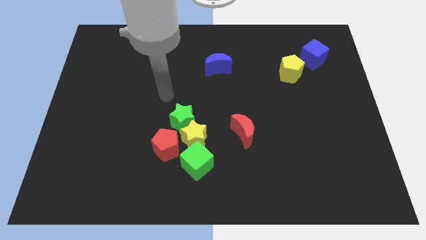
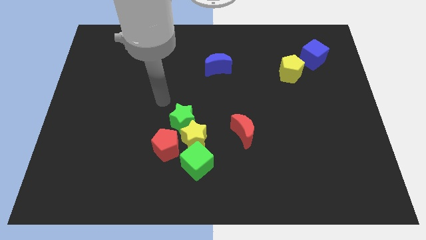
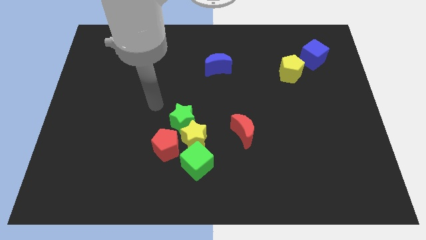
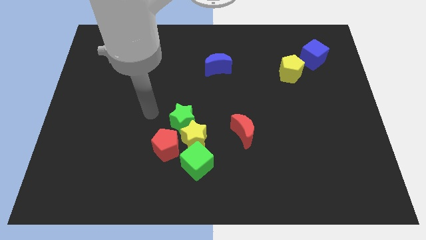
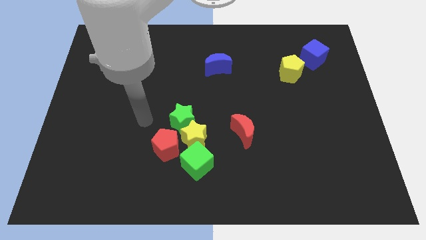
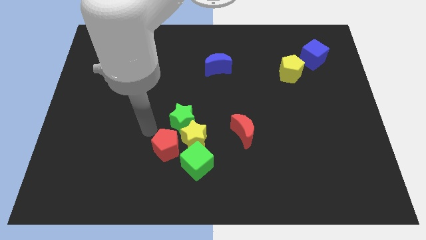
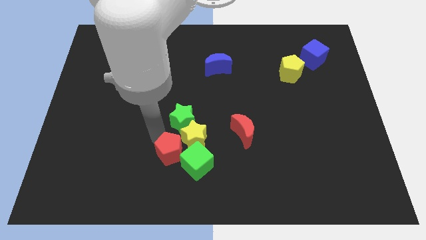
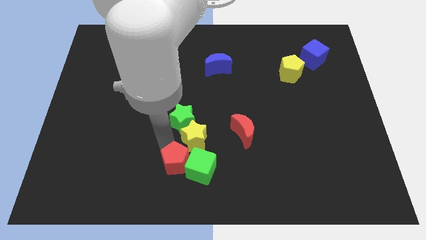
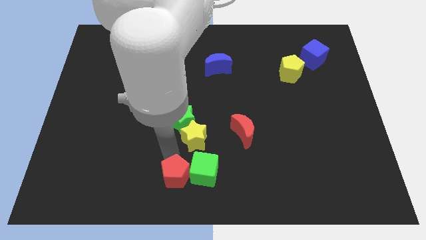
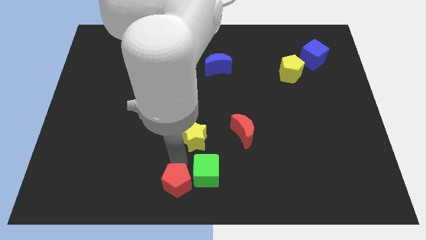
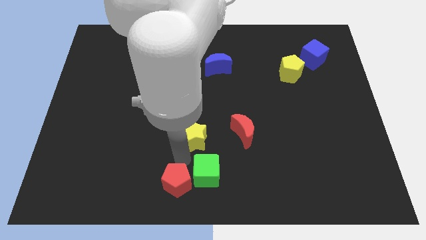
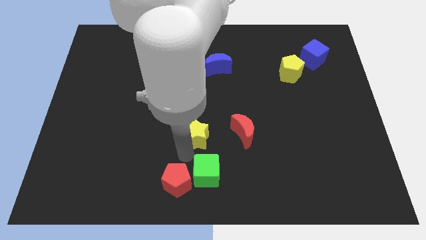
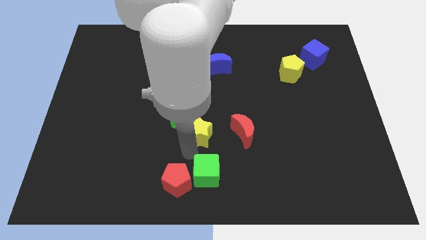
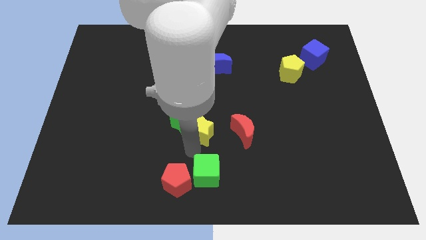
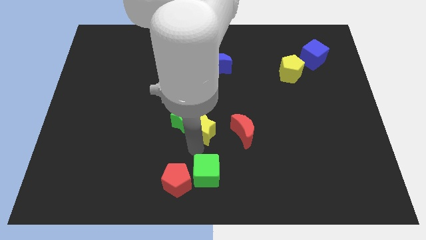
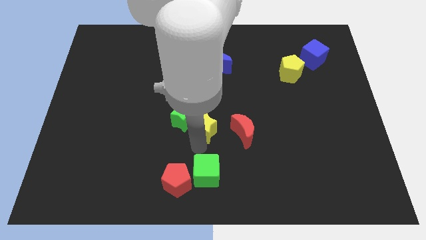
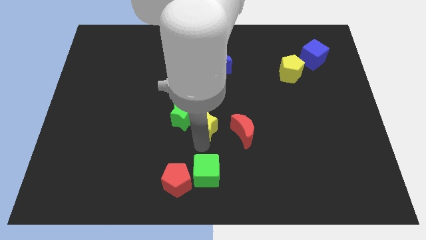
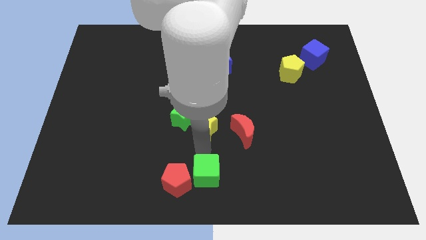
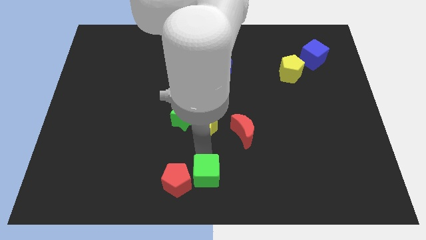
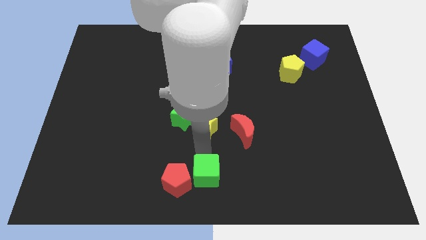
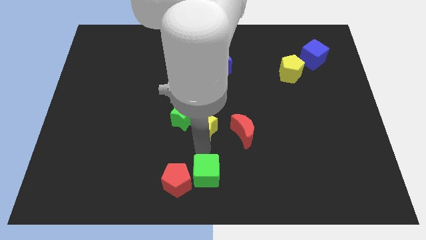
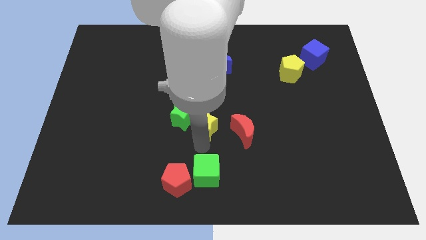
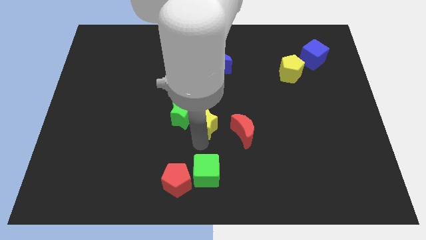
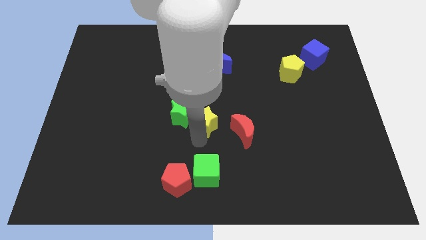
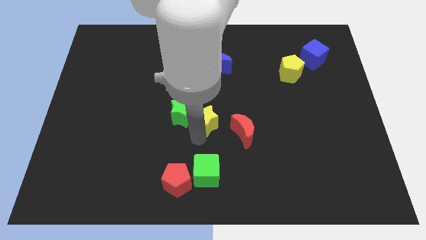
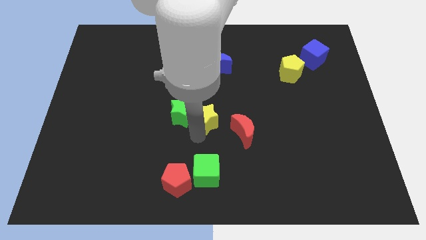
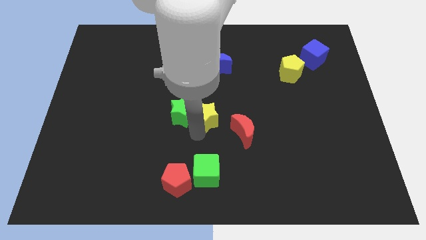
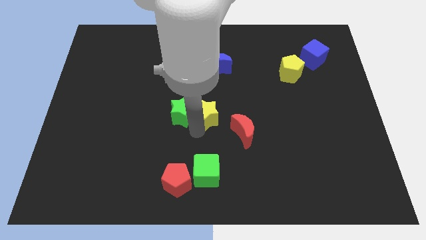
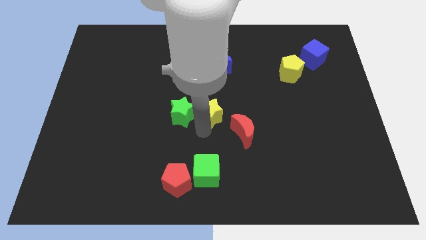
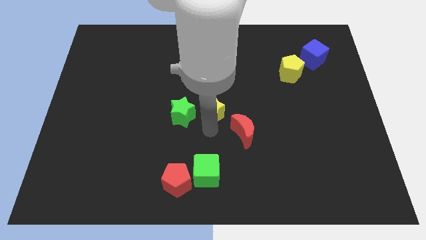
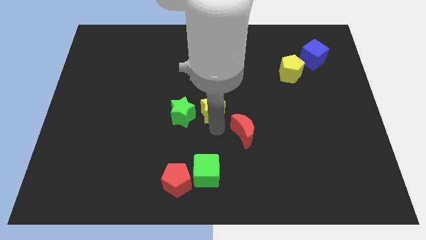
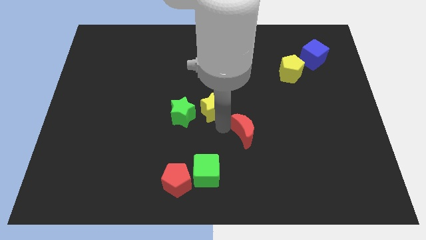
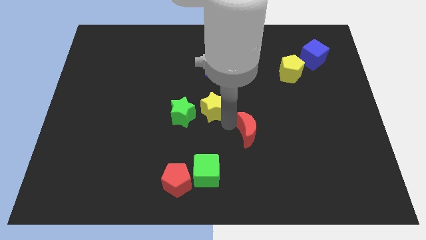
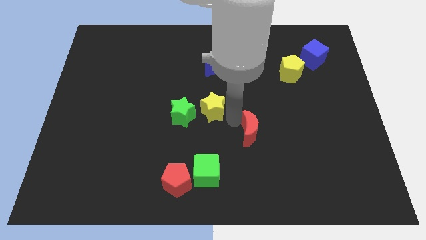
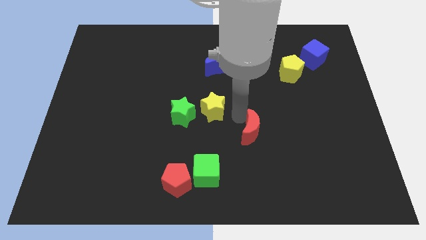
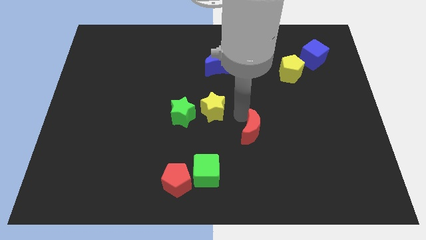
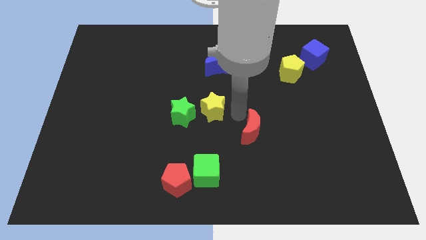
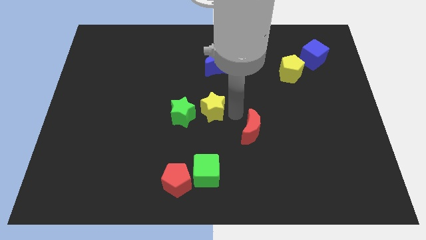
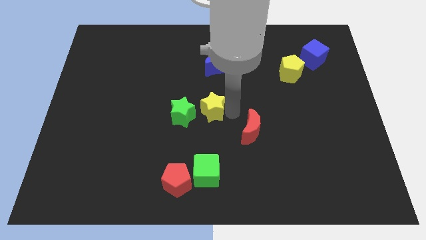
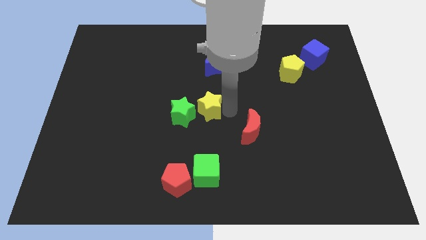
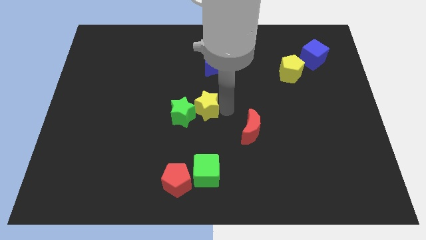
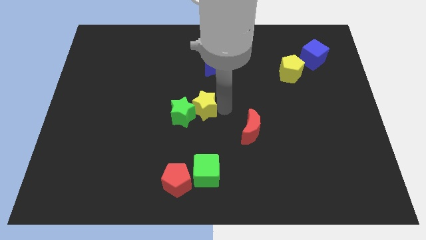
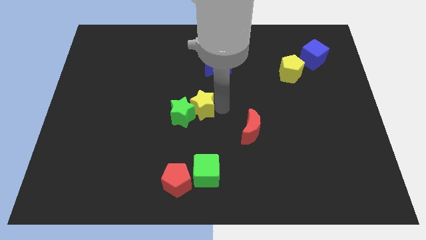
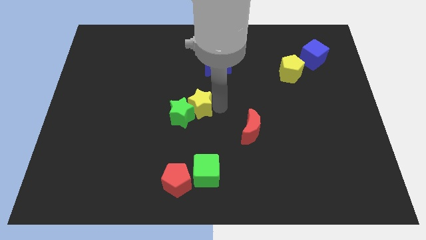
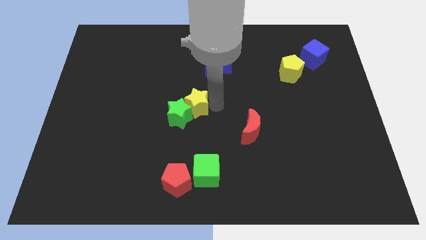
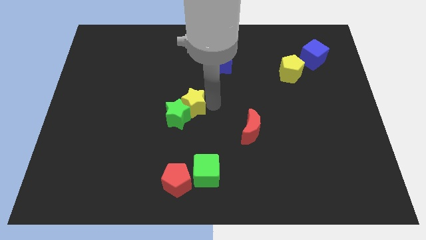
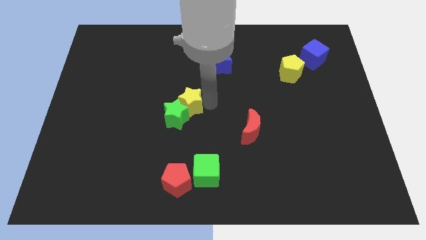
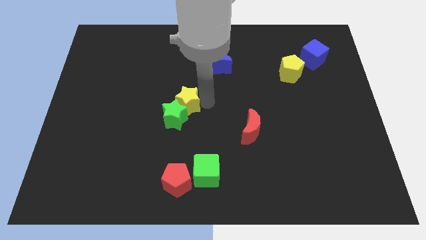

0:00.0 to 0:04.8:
slide the yellow star a little bit upwards and left

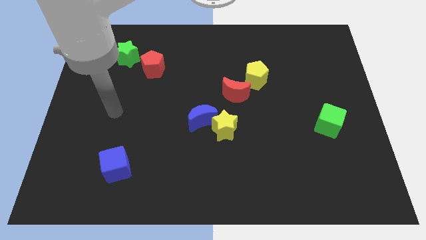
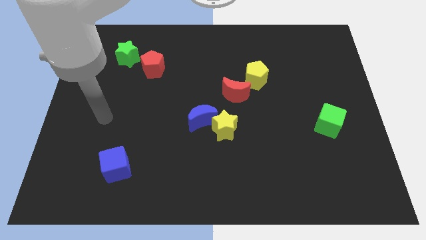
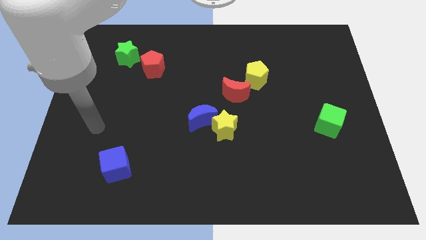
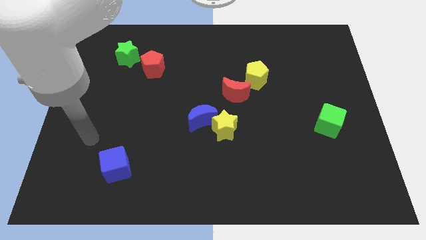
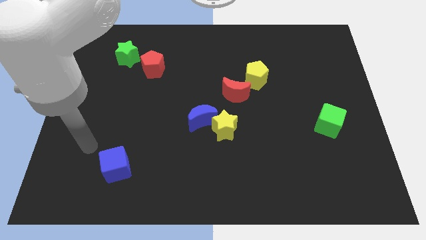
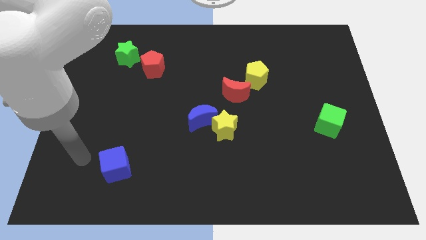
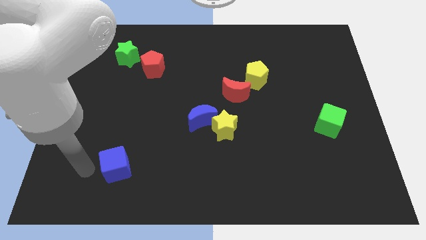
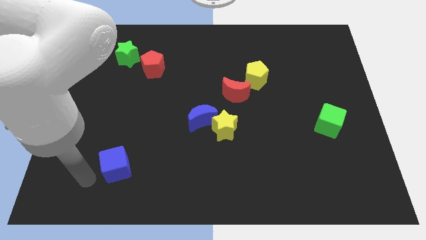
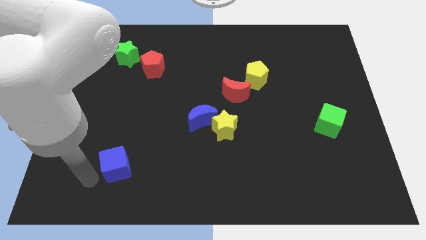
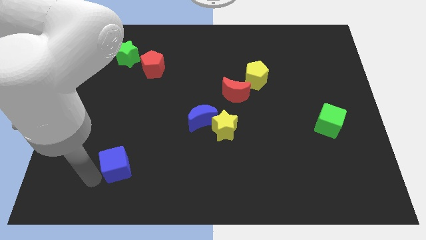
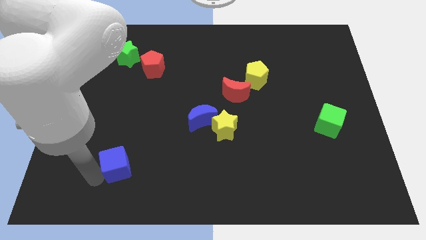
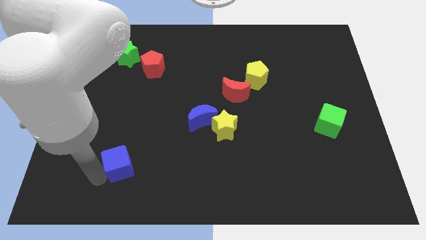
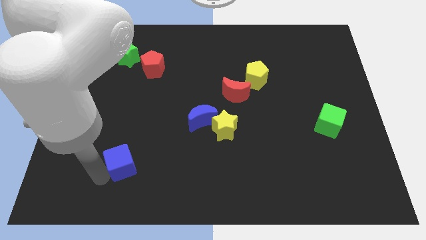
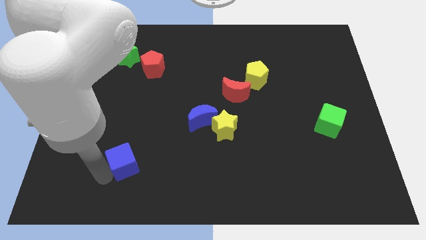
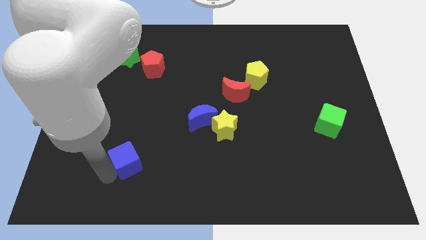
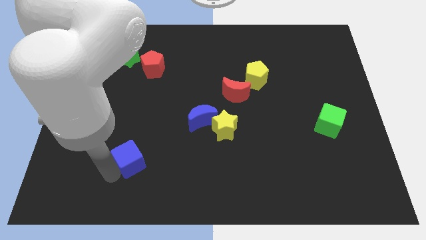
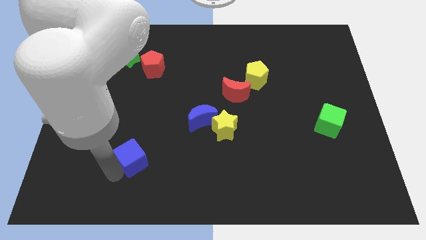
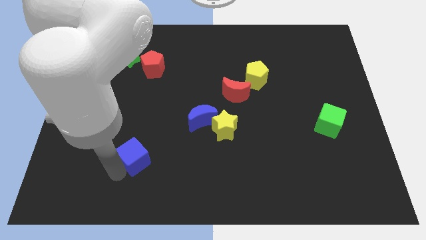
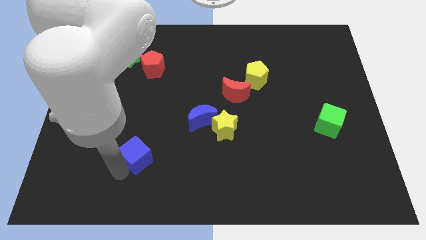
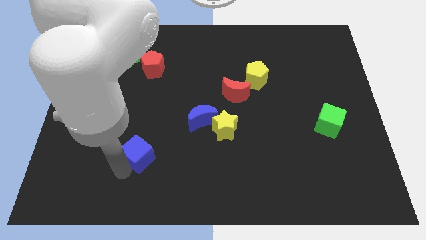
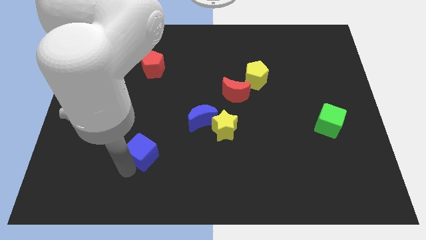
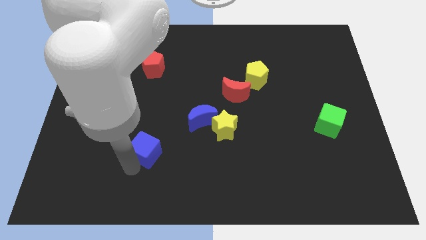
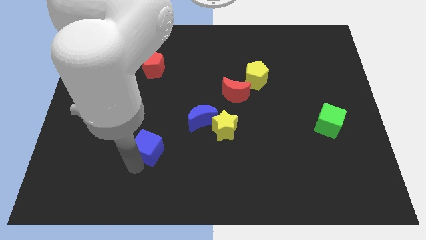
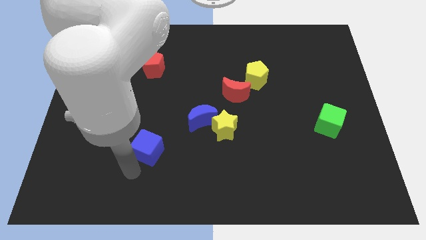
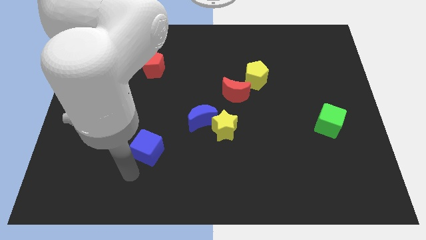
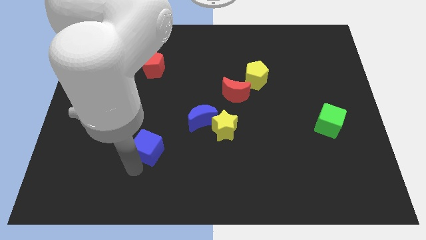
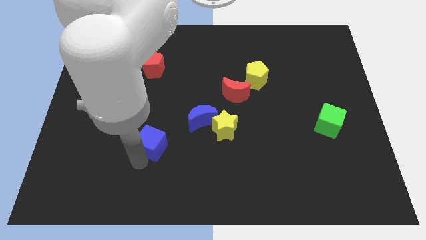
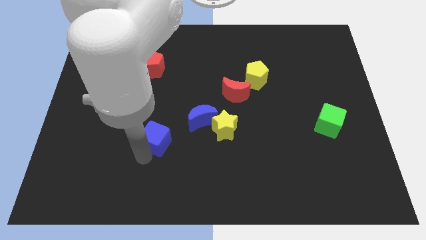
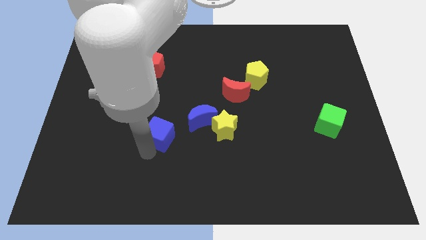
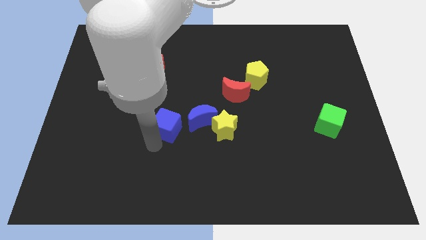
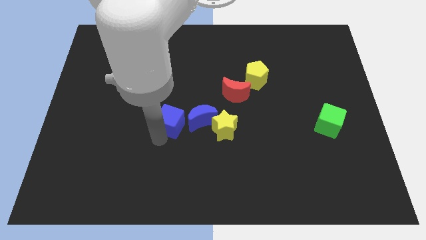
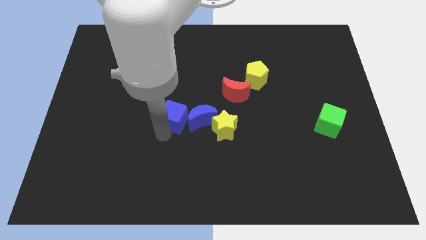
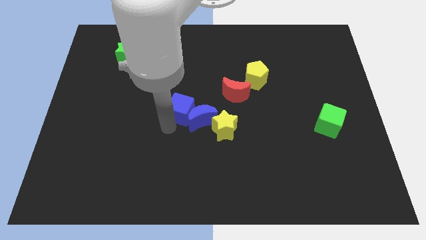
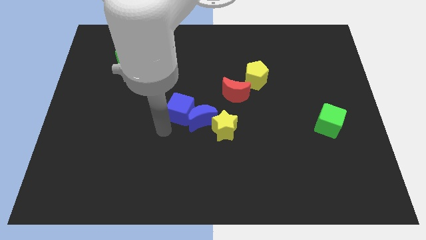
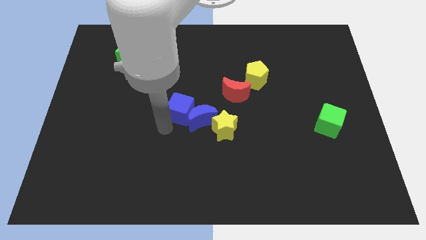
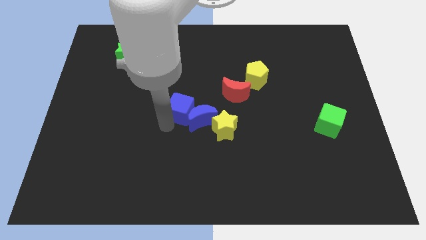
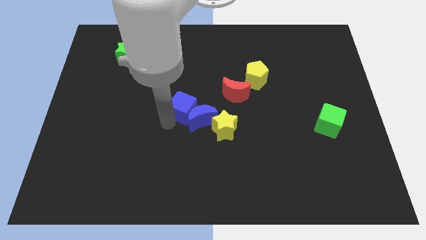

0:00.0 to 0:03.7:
move the blue cube upwards and to the right diagonally
